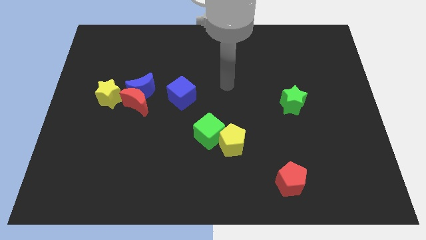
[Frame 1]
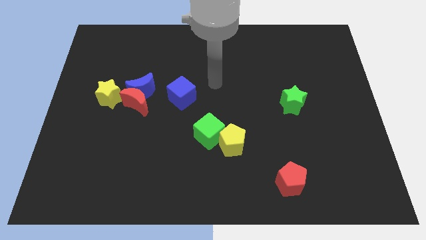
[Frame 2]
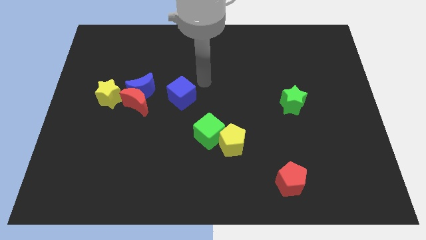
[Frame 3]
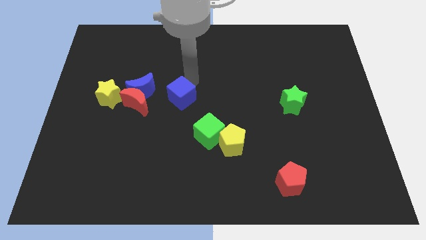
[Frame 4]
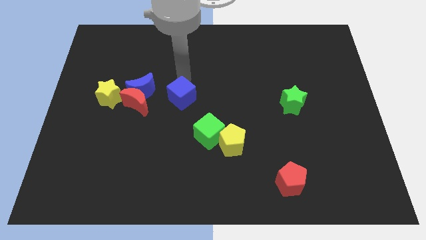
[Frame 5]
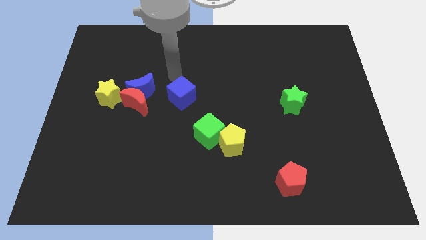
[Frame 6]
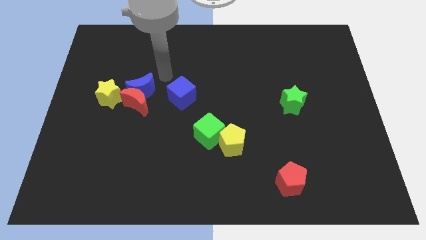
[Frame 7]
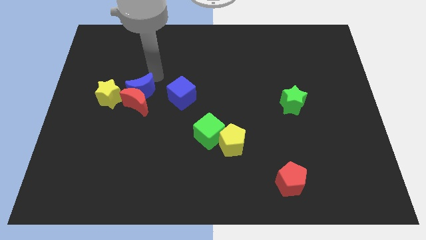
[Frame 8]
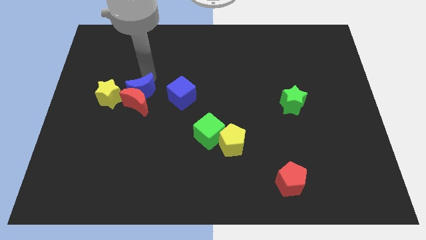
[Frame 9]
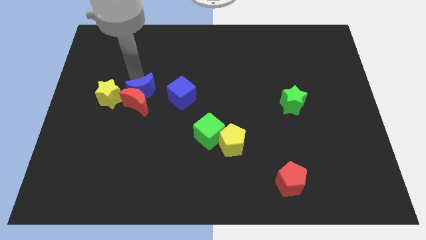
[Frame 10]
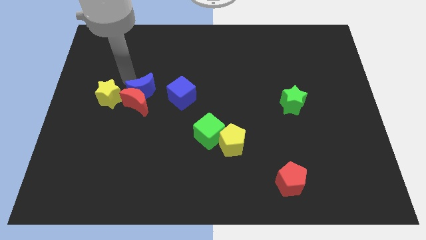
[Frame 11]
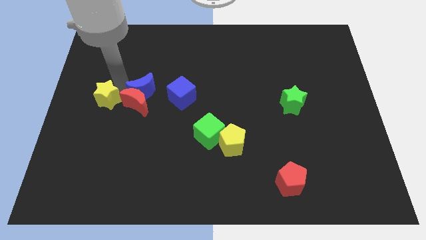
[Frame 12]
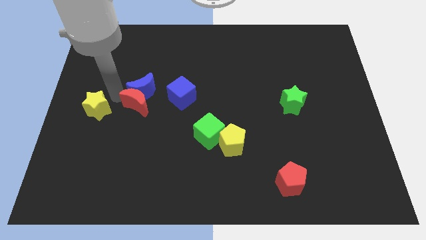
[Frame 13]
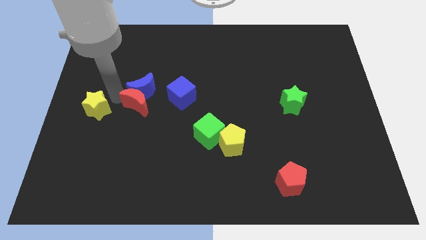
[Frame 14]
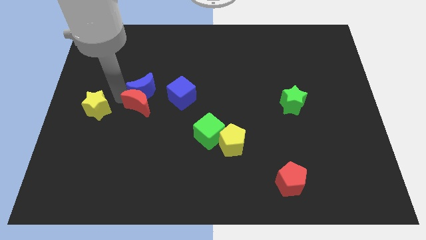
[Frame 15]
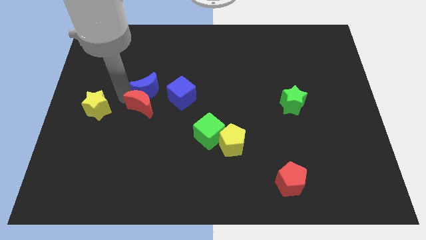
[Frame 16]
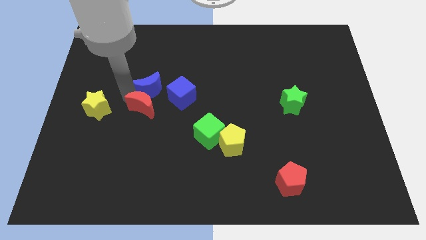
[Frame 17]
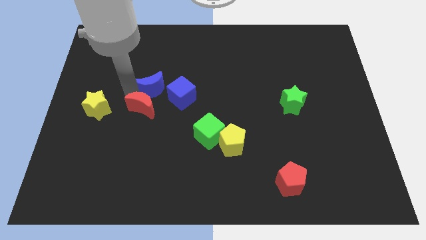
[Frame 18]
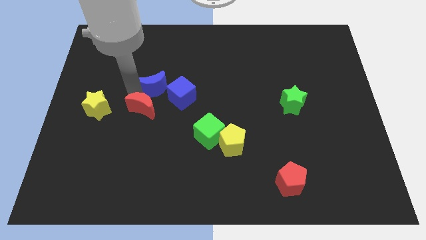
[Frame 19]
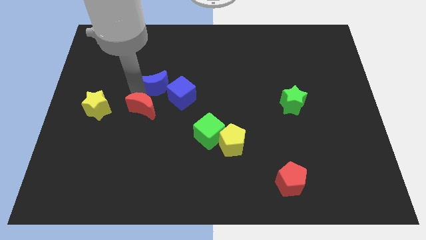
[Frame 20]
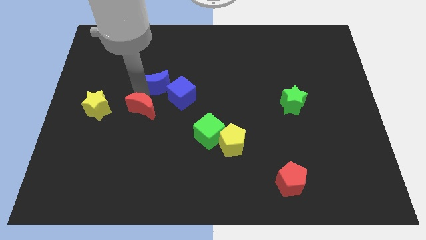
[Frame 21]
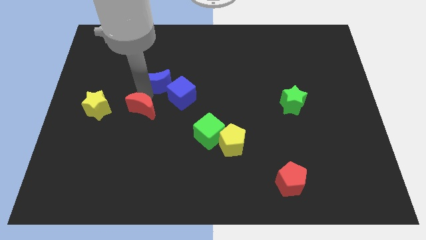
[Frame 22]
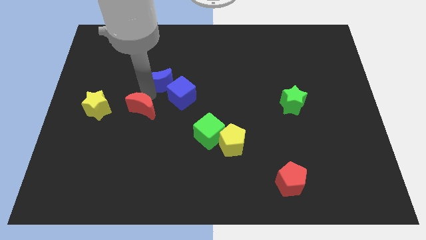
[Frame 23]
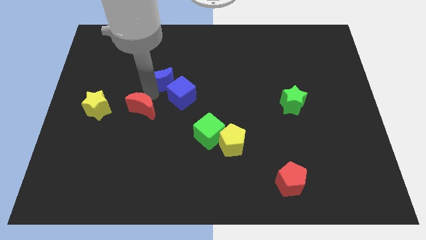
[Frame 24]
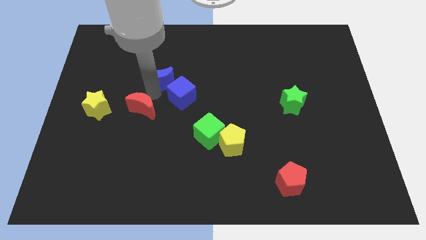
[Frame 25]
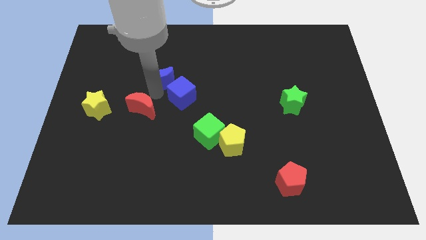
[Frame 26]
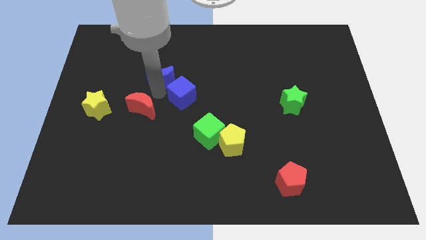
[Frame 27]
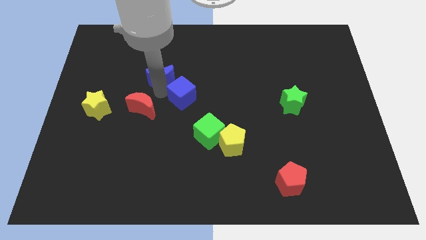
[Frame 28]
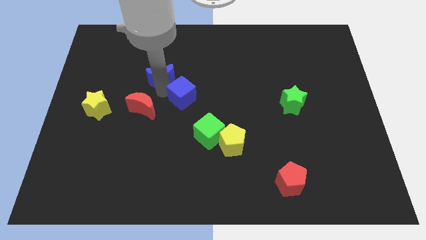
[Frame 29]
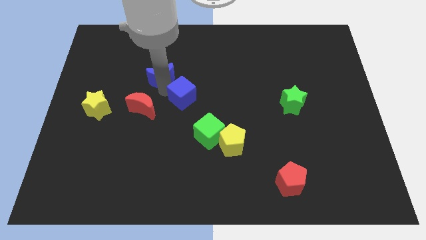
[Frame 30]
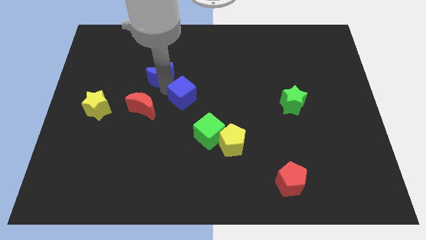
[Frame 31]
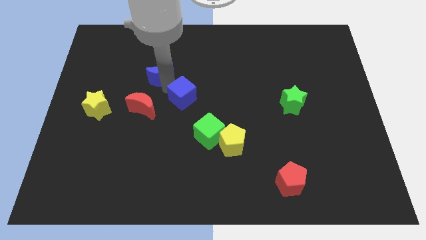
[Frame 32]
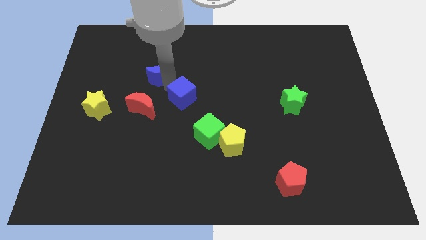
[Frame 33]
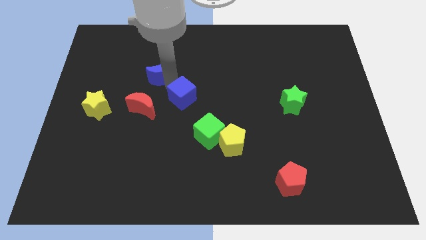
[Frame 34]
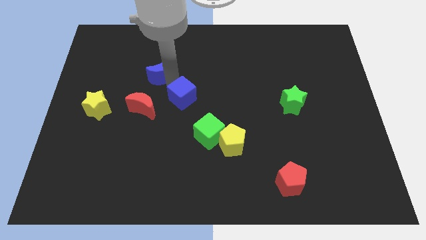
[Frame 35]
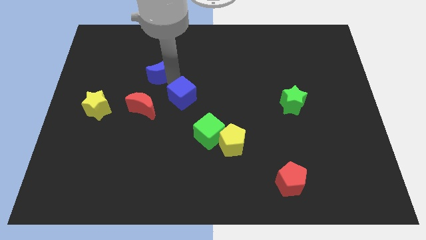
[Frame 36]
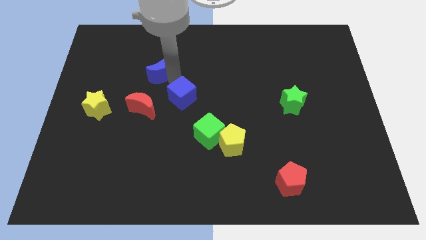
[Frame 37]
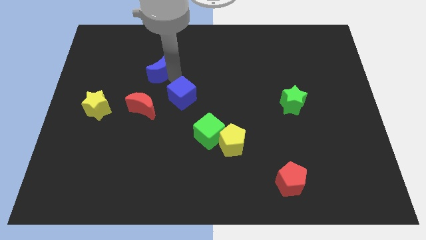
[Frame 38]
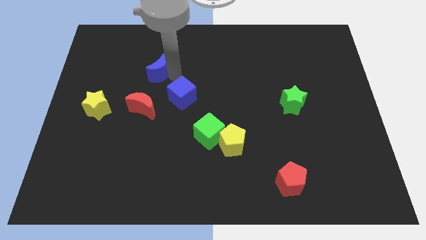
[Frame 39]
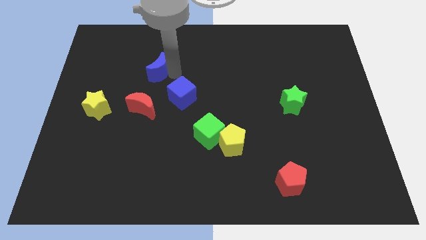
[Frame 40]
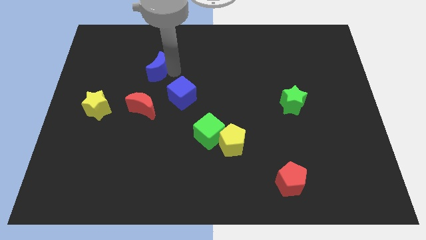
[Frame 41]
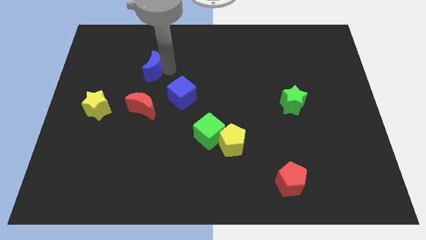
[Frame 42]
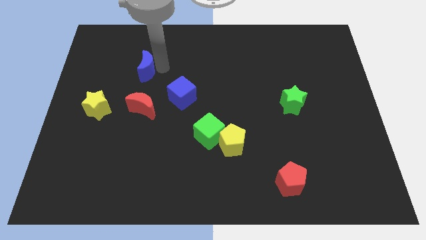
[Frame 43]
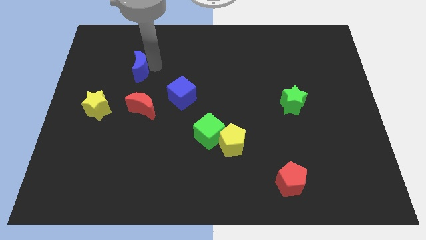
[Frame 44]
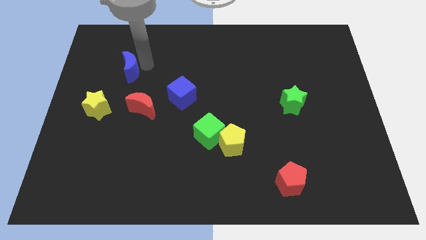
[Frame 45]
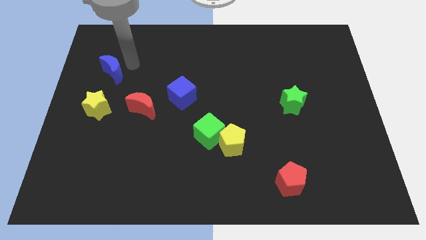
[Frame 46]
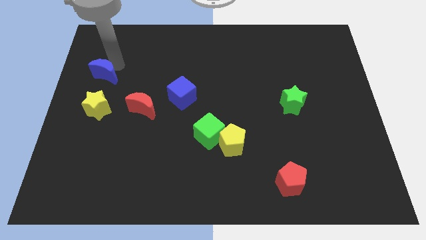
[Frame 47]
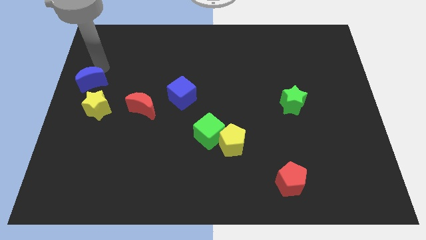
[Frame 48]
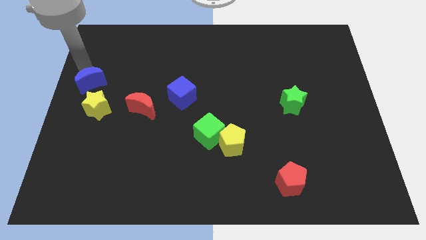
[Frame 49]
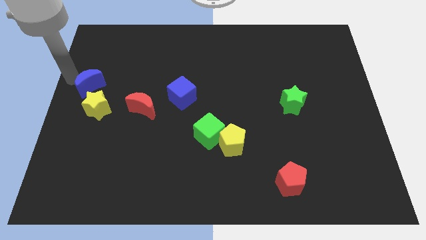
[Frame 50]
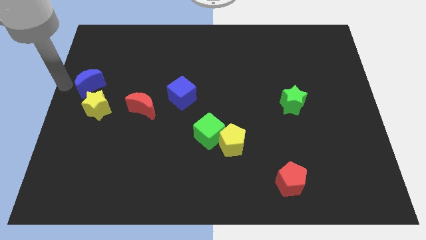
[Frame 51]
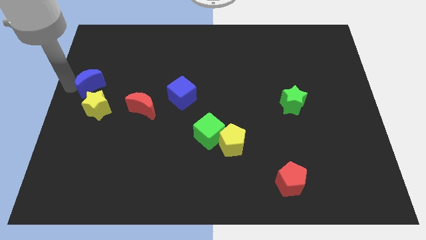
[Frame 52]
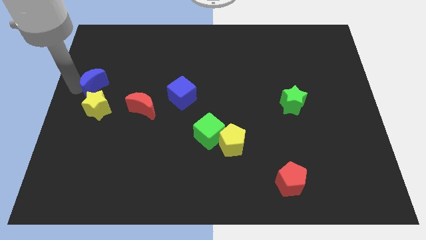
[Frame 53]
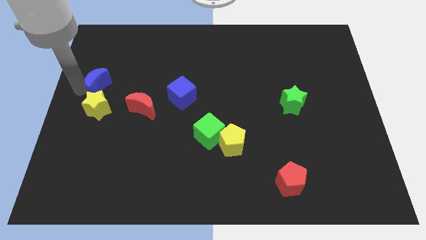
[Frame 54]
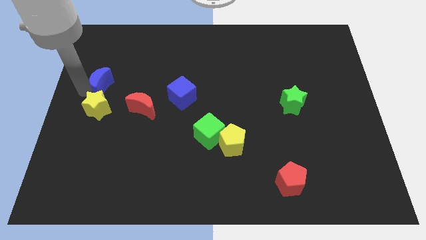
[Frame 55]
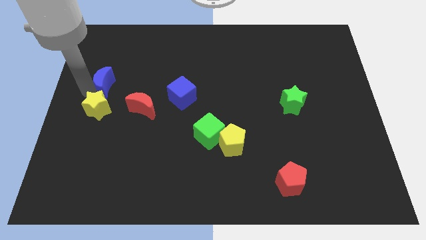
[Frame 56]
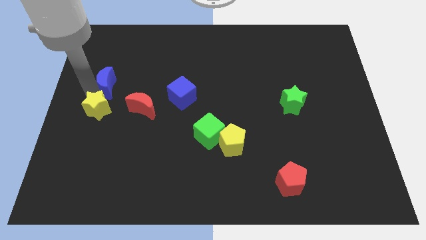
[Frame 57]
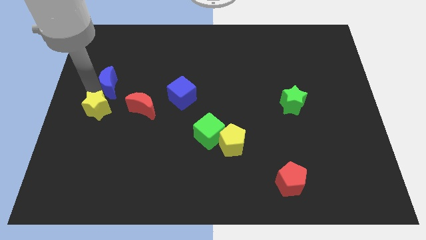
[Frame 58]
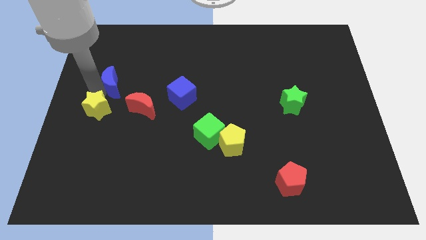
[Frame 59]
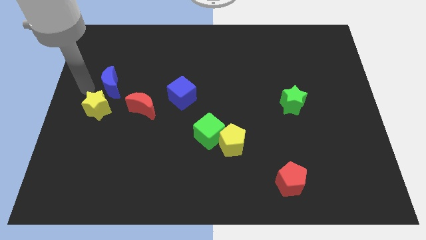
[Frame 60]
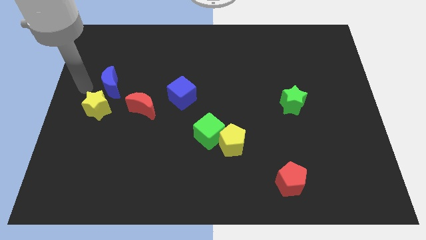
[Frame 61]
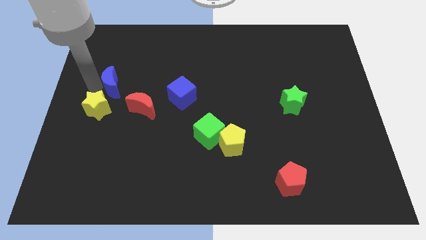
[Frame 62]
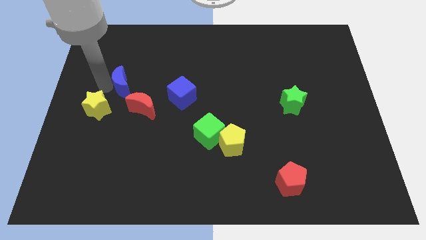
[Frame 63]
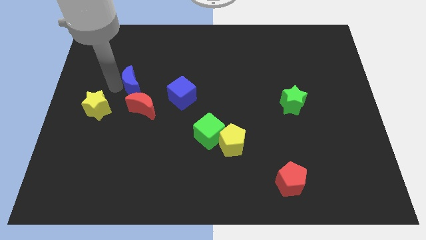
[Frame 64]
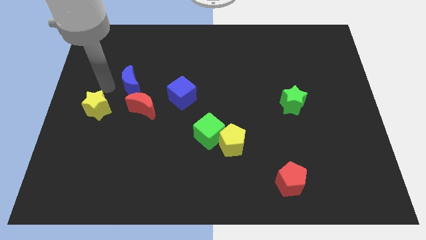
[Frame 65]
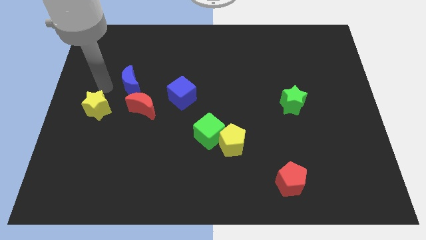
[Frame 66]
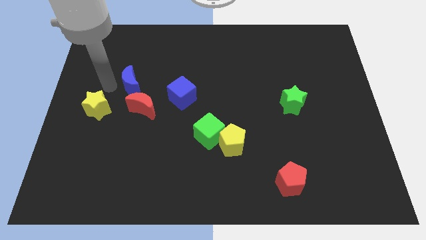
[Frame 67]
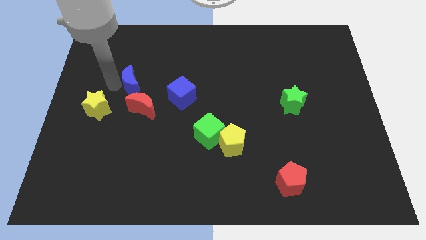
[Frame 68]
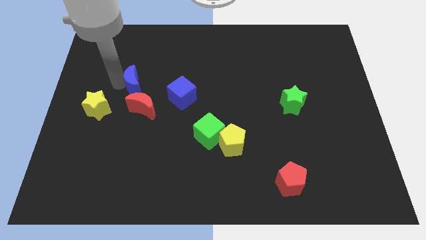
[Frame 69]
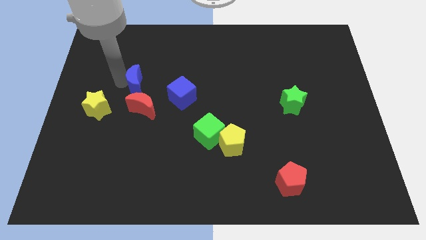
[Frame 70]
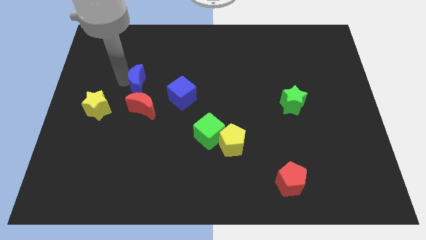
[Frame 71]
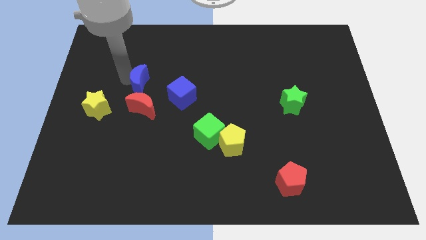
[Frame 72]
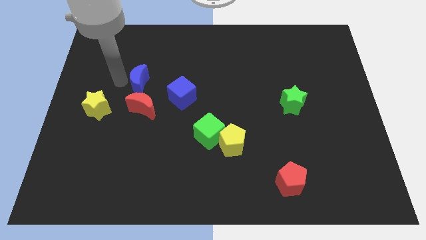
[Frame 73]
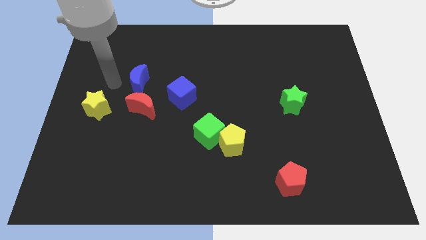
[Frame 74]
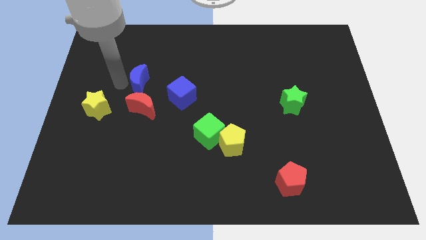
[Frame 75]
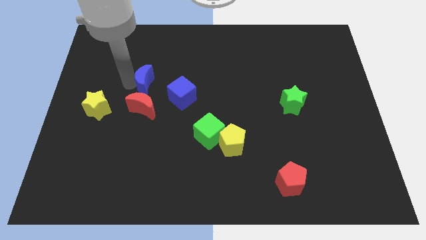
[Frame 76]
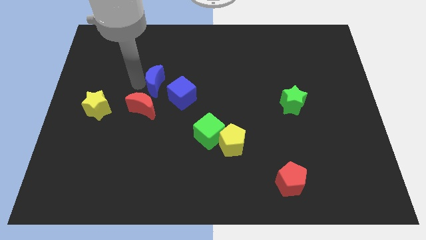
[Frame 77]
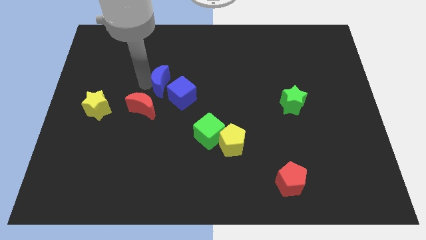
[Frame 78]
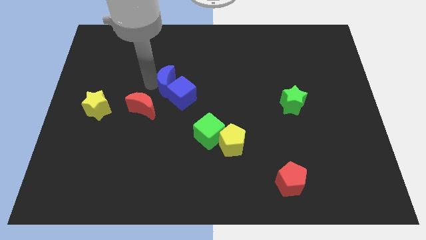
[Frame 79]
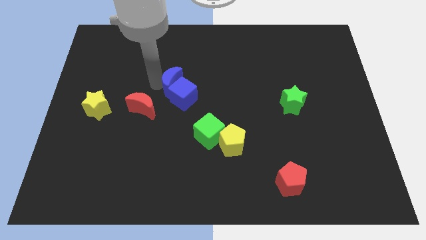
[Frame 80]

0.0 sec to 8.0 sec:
move the blue moon to the middle
